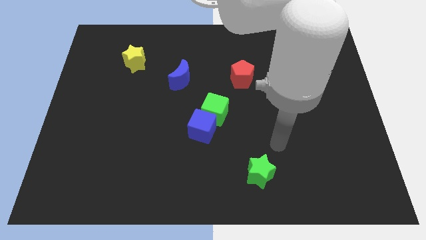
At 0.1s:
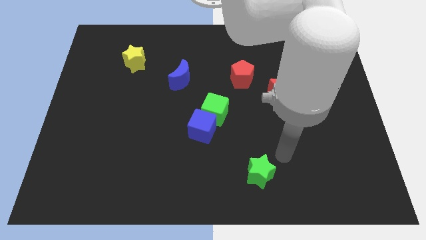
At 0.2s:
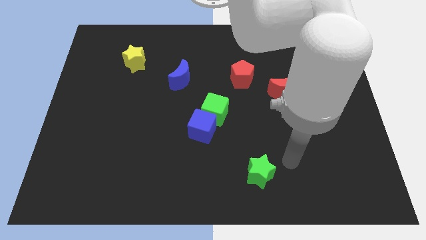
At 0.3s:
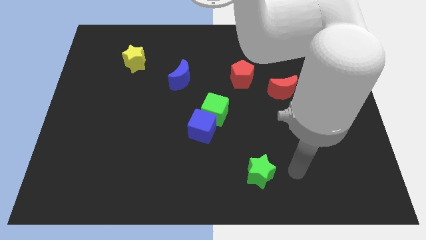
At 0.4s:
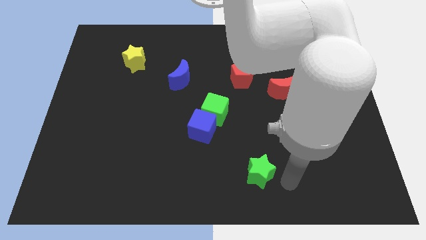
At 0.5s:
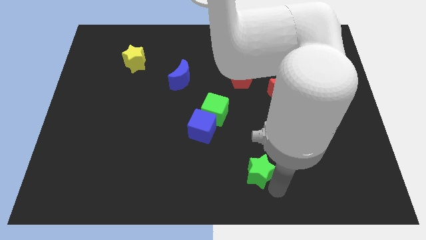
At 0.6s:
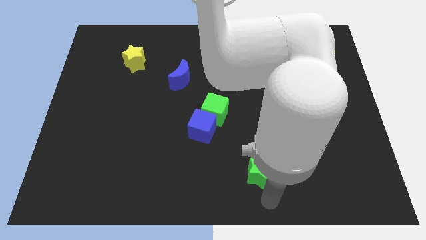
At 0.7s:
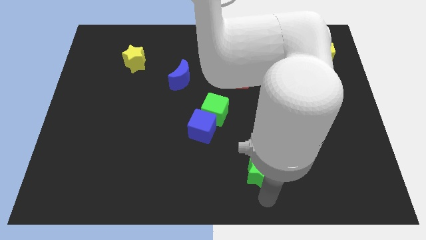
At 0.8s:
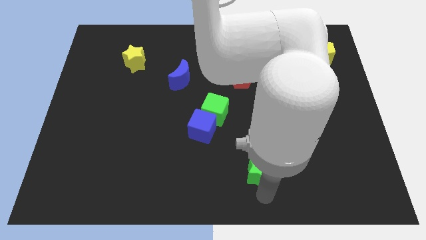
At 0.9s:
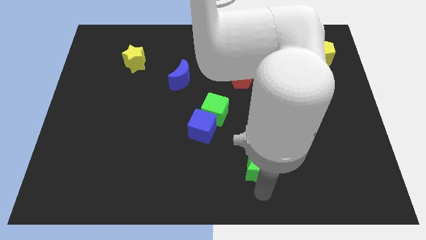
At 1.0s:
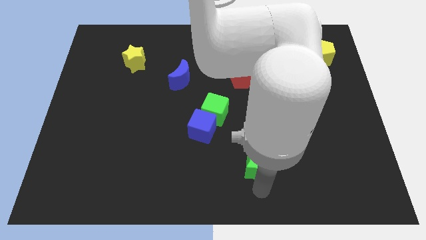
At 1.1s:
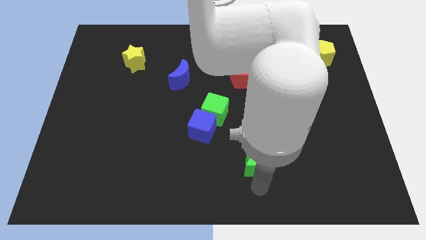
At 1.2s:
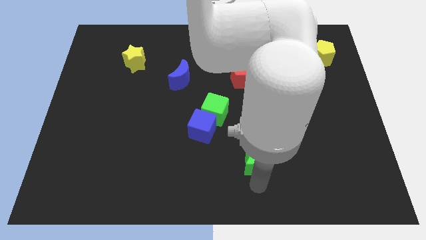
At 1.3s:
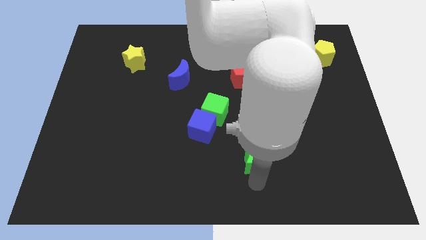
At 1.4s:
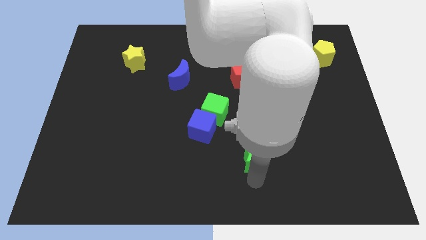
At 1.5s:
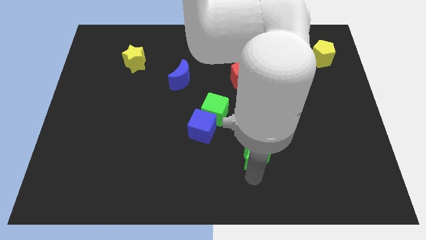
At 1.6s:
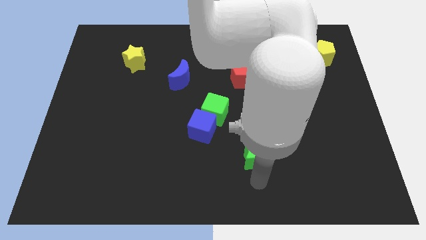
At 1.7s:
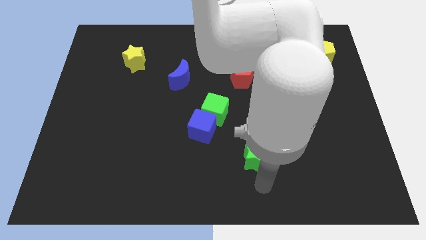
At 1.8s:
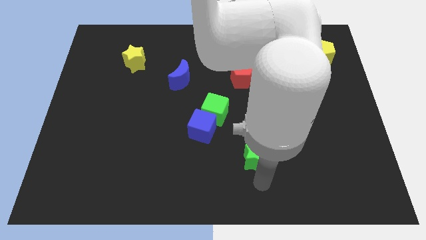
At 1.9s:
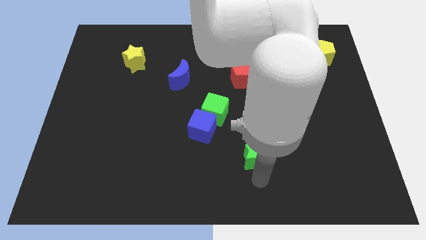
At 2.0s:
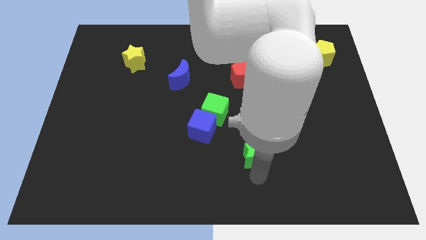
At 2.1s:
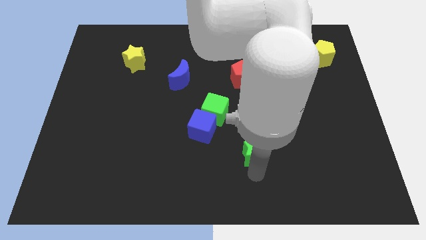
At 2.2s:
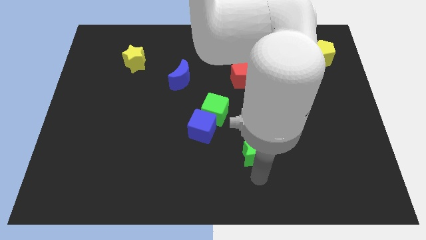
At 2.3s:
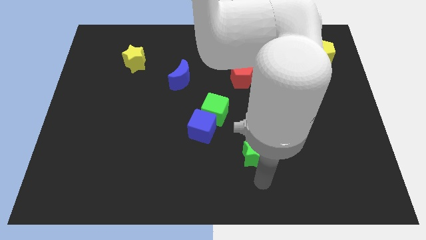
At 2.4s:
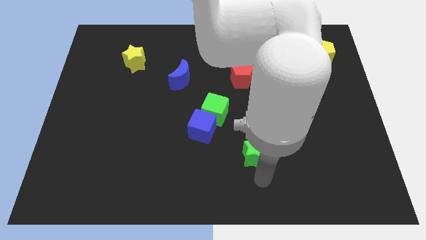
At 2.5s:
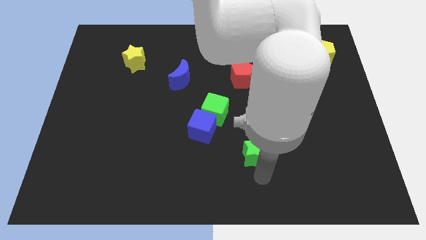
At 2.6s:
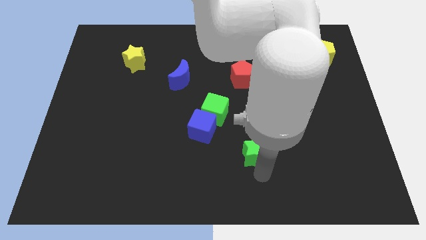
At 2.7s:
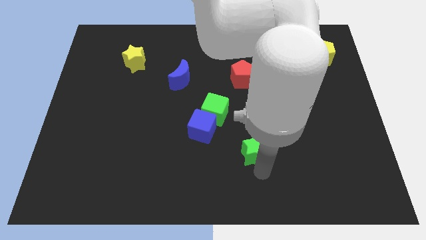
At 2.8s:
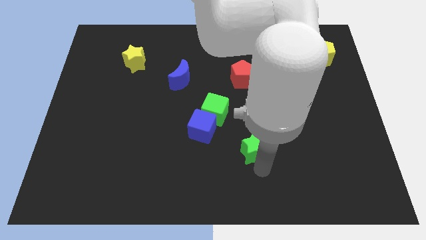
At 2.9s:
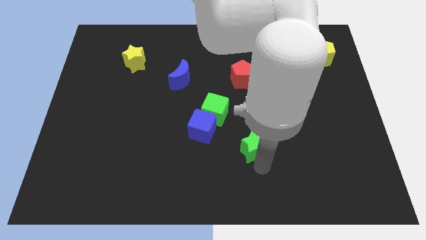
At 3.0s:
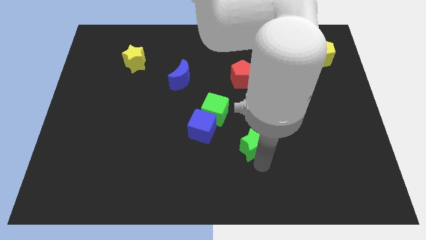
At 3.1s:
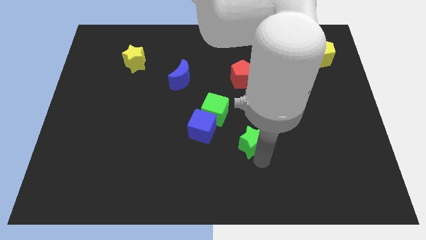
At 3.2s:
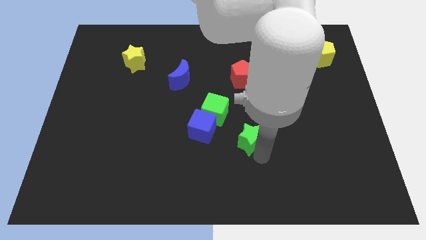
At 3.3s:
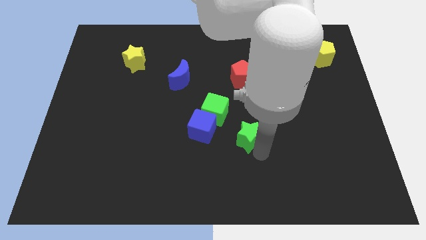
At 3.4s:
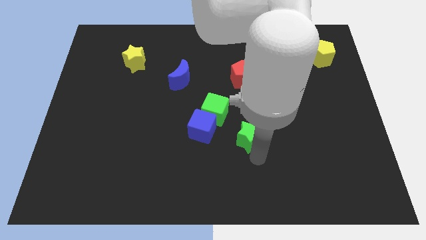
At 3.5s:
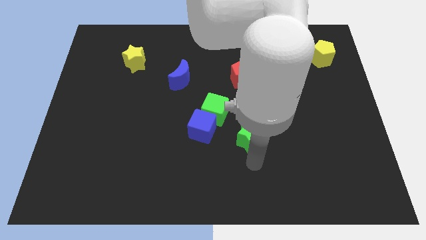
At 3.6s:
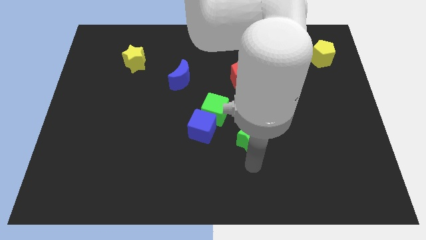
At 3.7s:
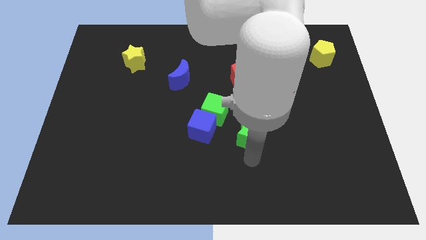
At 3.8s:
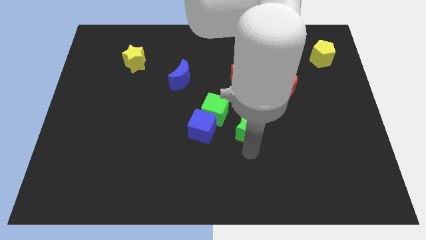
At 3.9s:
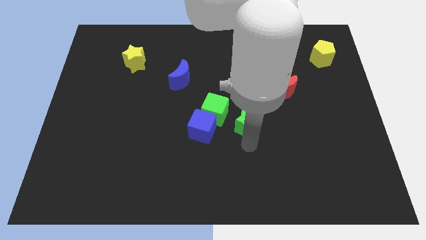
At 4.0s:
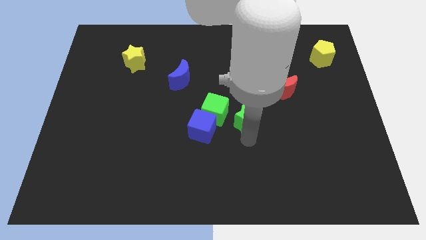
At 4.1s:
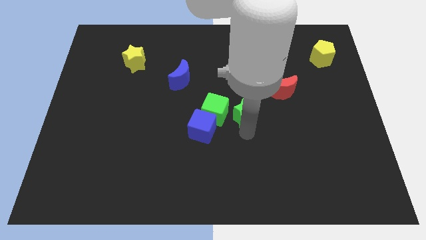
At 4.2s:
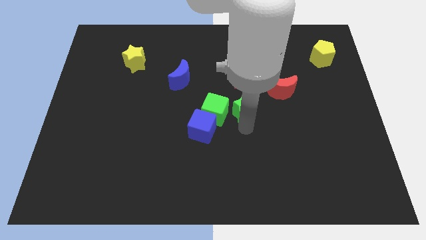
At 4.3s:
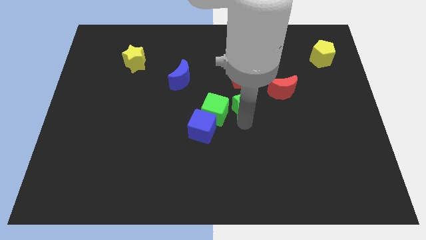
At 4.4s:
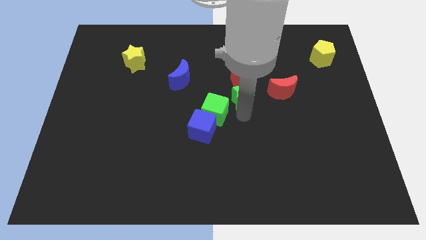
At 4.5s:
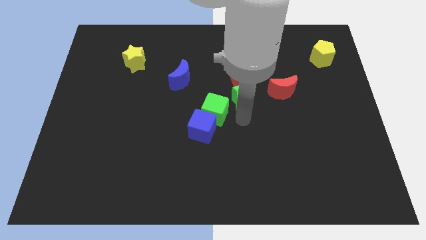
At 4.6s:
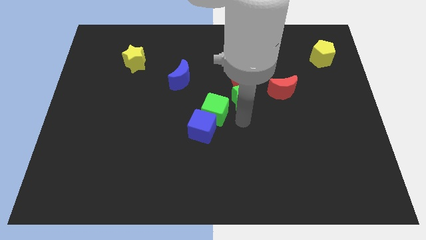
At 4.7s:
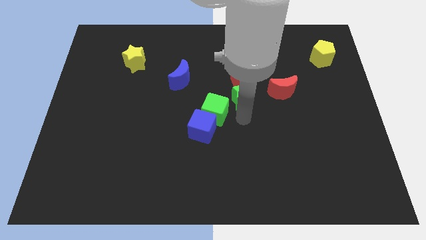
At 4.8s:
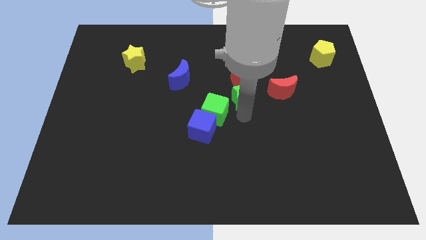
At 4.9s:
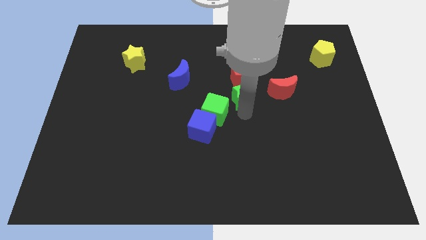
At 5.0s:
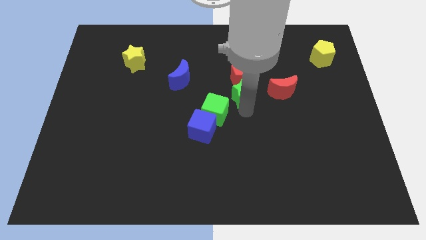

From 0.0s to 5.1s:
move the green star next to the red pentagon

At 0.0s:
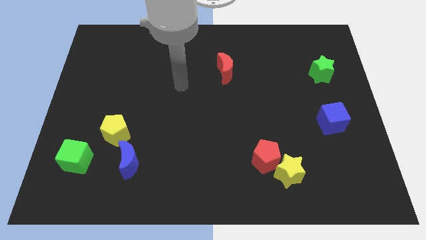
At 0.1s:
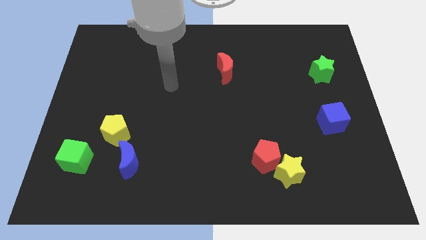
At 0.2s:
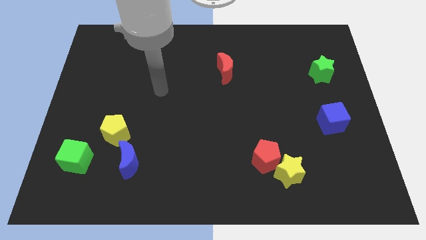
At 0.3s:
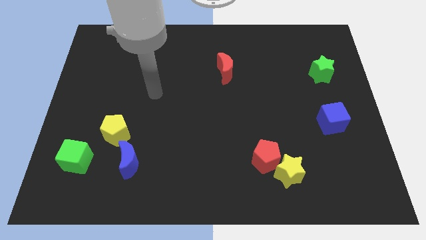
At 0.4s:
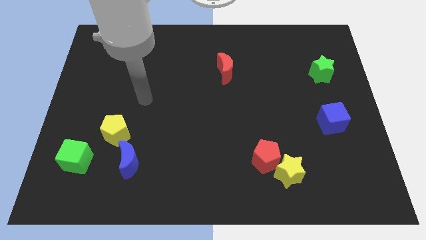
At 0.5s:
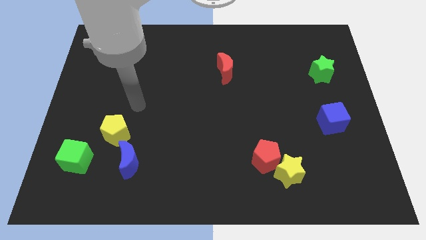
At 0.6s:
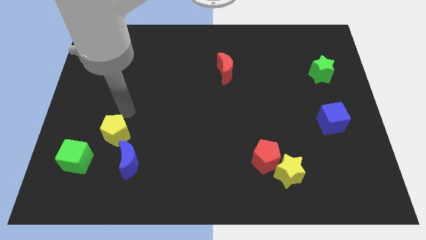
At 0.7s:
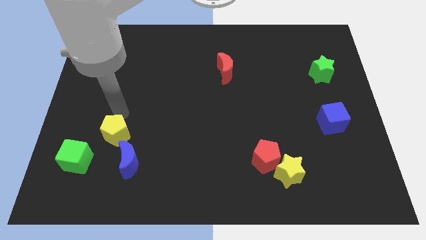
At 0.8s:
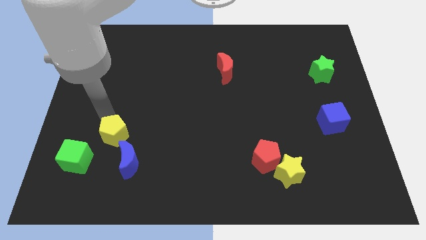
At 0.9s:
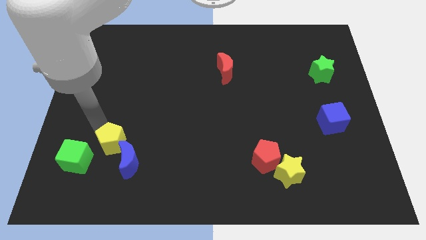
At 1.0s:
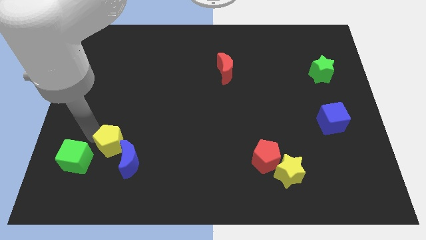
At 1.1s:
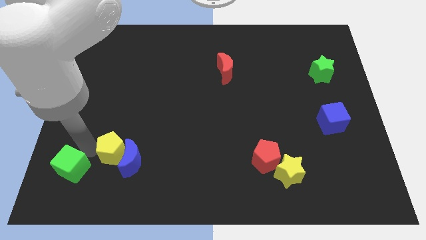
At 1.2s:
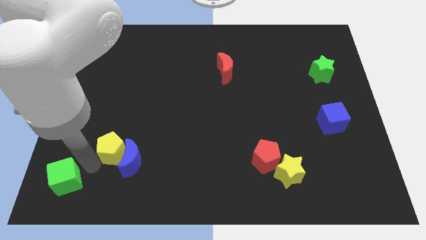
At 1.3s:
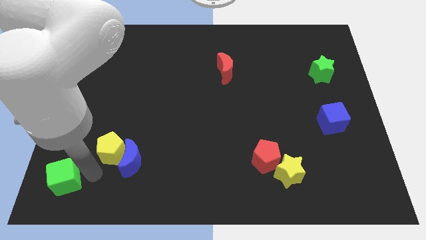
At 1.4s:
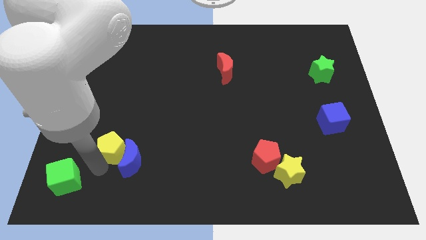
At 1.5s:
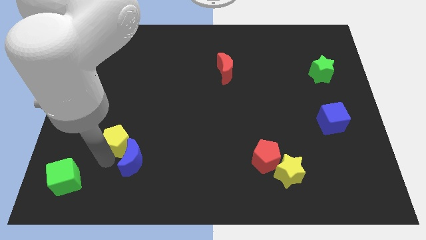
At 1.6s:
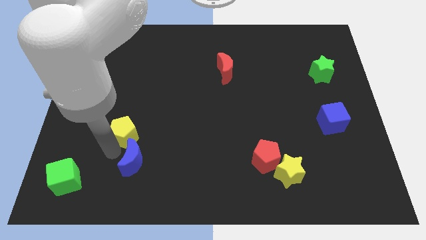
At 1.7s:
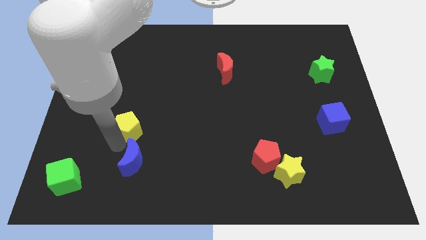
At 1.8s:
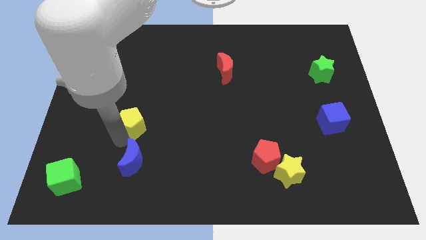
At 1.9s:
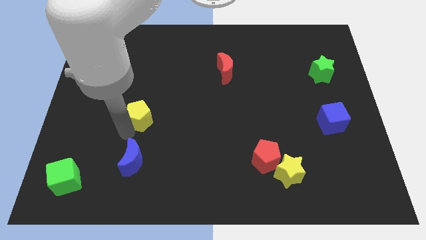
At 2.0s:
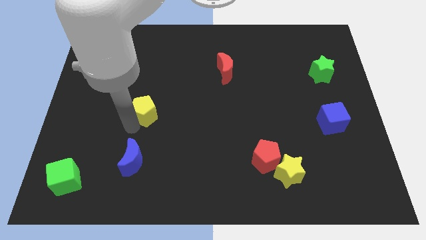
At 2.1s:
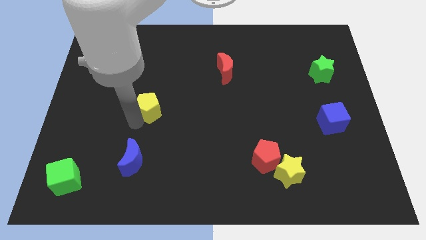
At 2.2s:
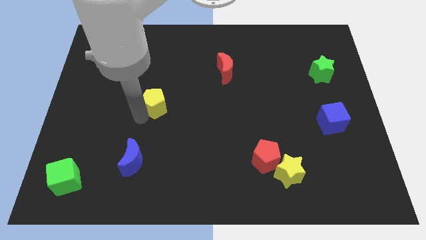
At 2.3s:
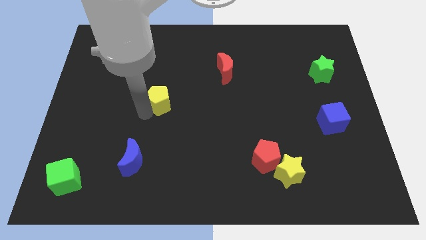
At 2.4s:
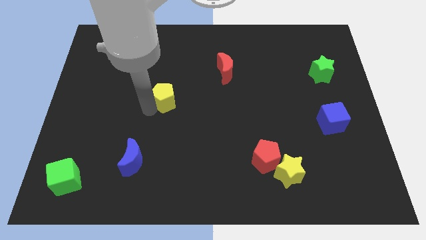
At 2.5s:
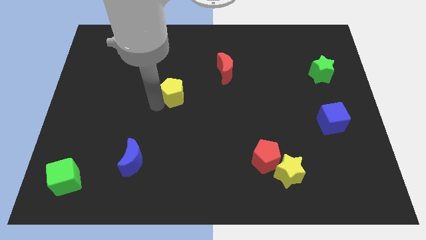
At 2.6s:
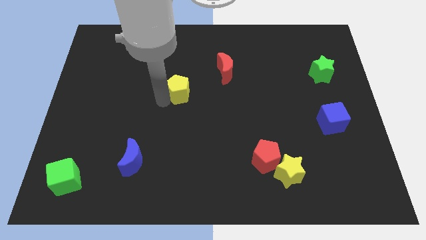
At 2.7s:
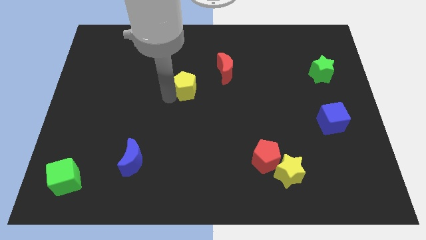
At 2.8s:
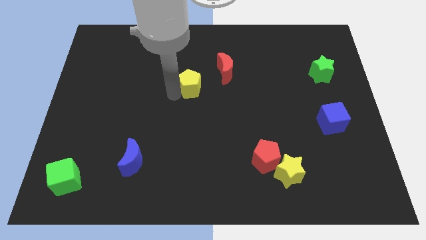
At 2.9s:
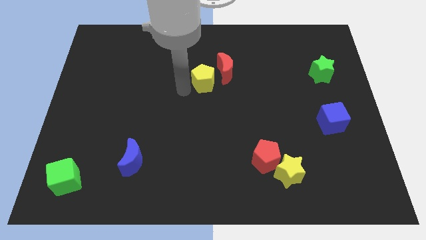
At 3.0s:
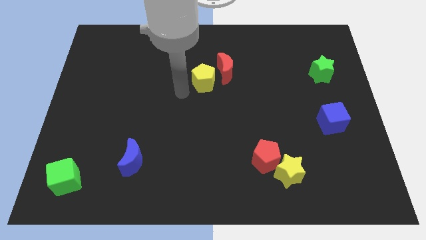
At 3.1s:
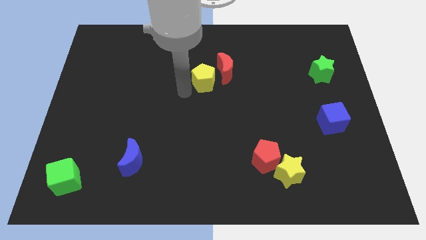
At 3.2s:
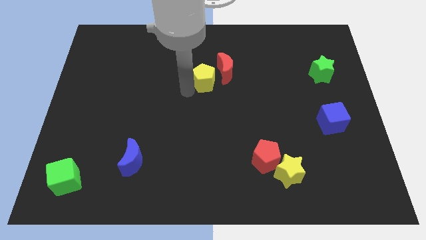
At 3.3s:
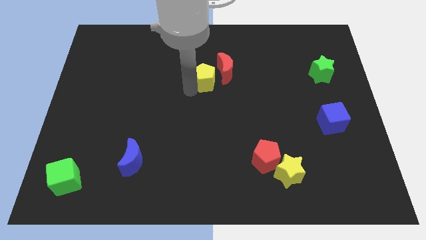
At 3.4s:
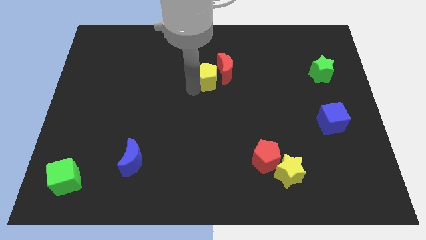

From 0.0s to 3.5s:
move the yellow pentagon close to the red moon
